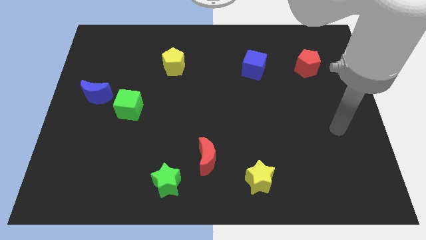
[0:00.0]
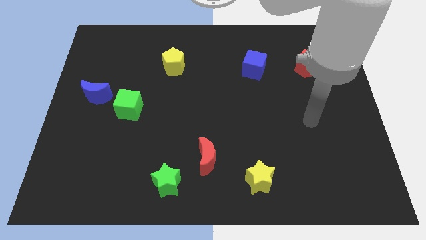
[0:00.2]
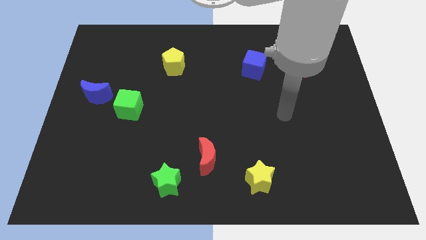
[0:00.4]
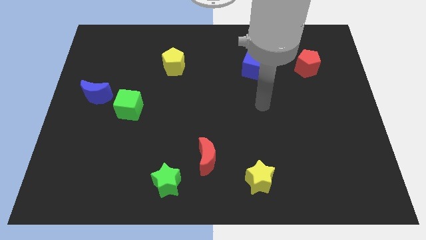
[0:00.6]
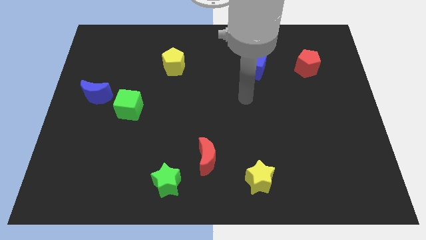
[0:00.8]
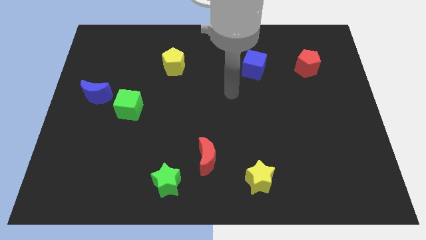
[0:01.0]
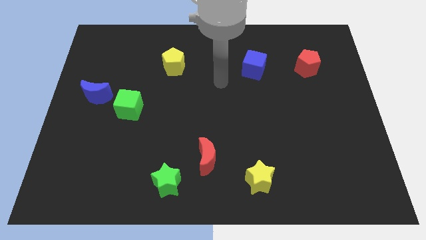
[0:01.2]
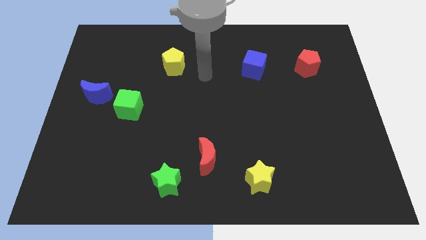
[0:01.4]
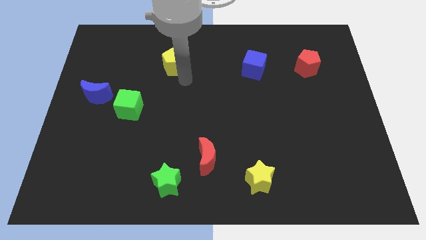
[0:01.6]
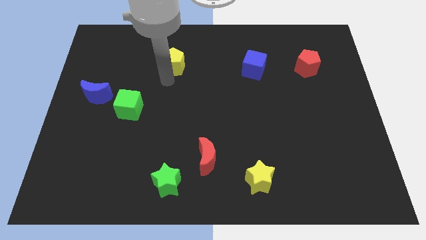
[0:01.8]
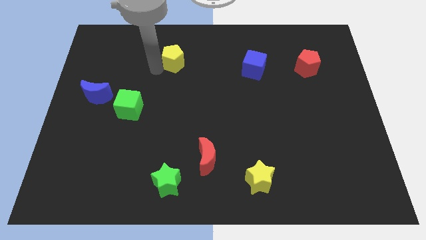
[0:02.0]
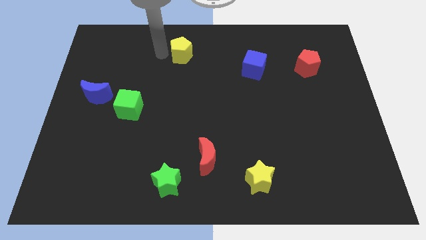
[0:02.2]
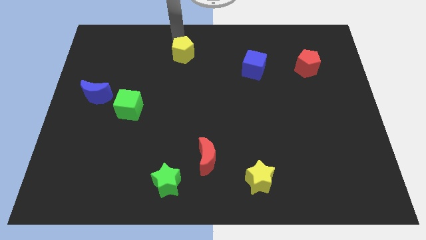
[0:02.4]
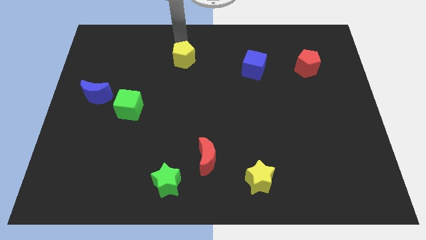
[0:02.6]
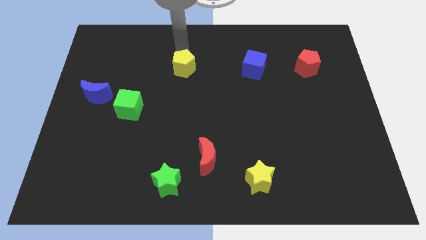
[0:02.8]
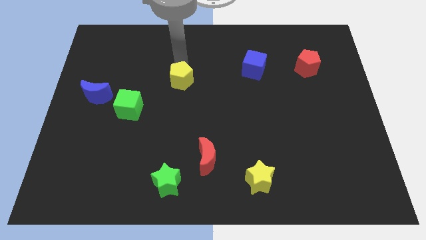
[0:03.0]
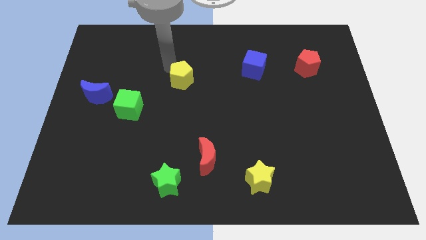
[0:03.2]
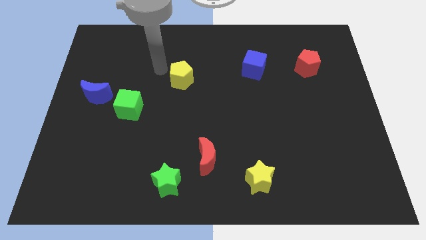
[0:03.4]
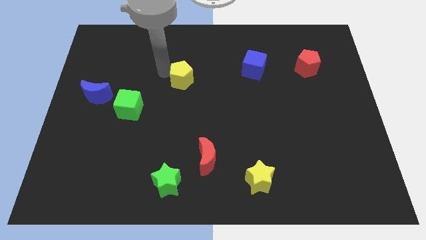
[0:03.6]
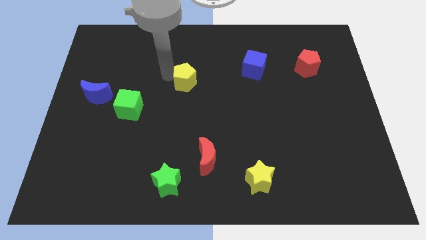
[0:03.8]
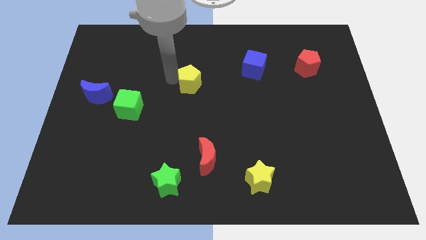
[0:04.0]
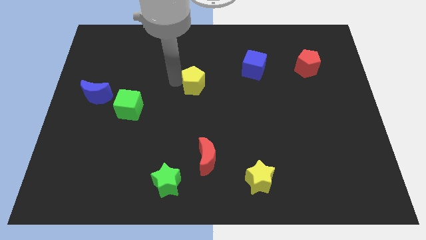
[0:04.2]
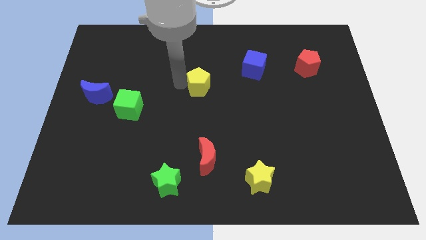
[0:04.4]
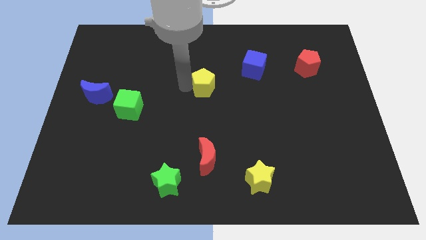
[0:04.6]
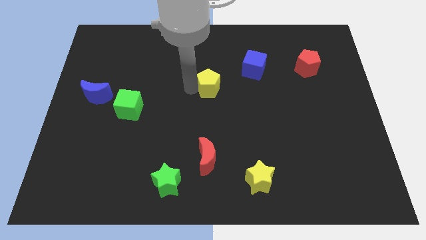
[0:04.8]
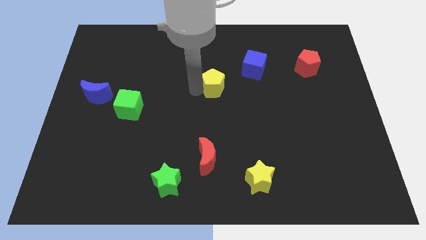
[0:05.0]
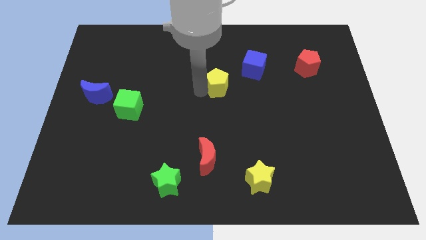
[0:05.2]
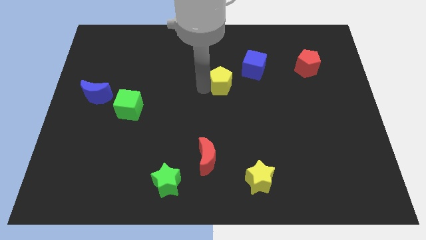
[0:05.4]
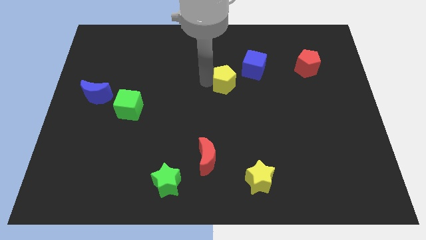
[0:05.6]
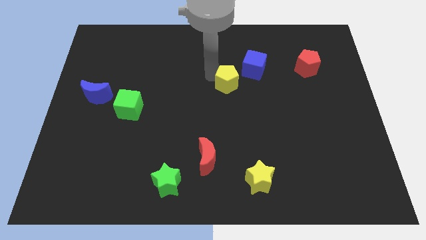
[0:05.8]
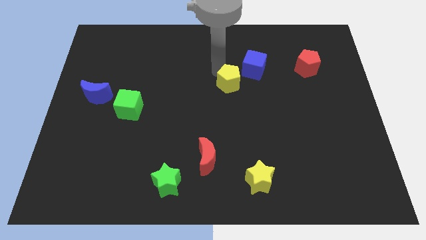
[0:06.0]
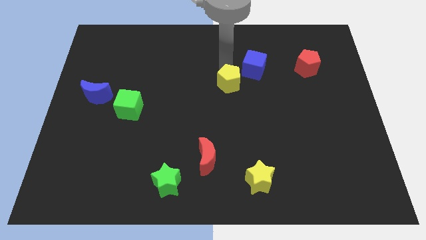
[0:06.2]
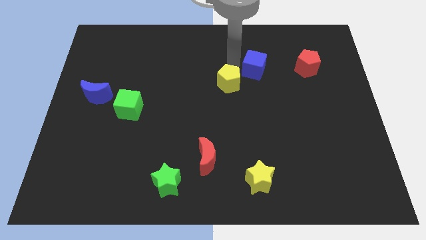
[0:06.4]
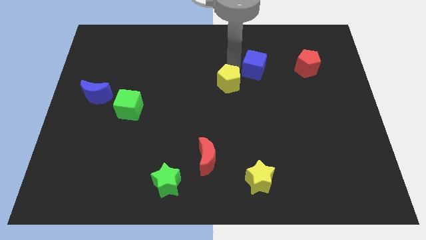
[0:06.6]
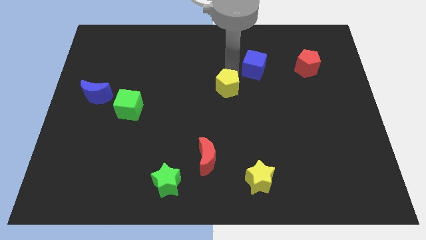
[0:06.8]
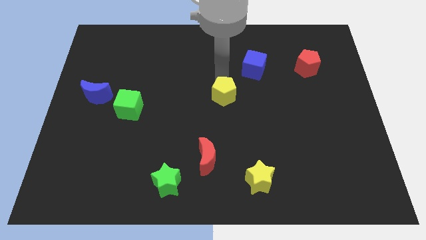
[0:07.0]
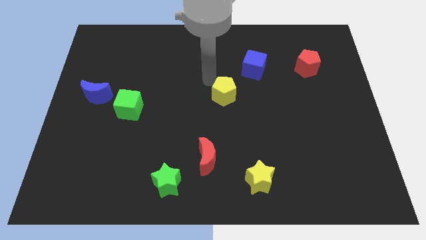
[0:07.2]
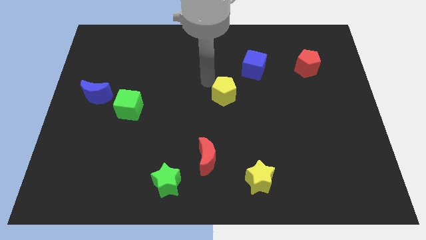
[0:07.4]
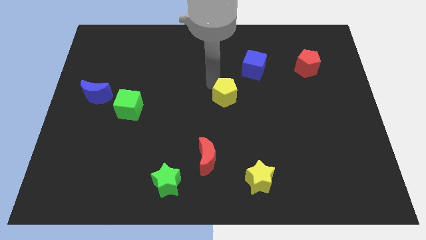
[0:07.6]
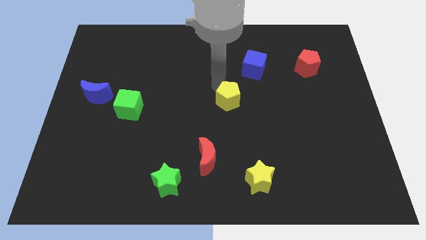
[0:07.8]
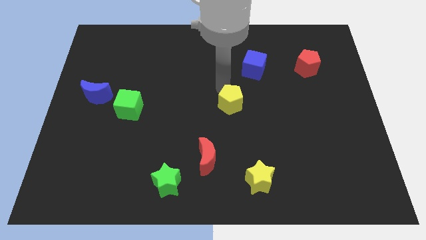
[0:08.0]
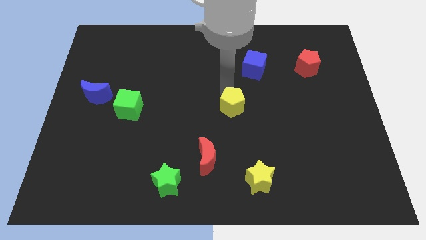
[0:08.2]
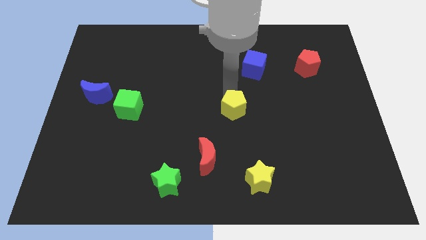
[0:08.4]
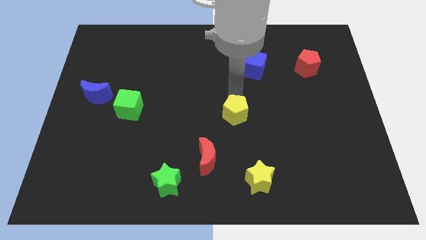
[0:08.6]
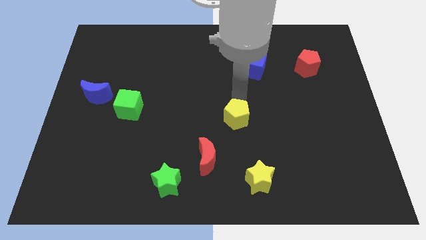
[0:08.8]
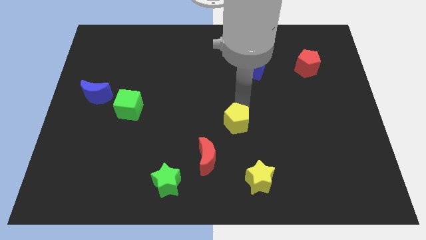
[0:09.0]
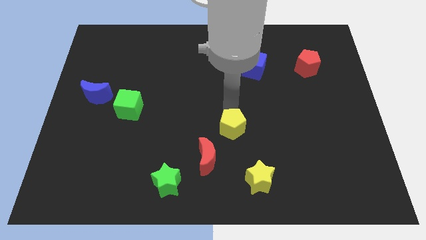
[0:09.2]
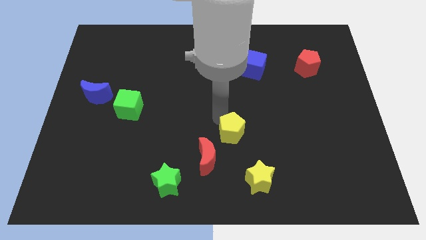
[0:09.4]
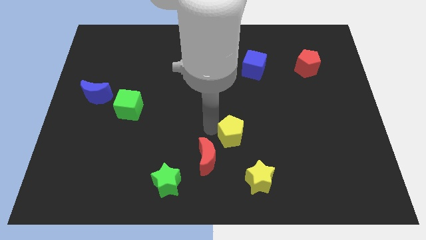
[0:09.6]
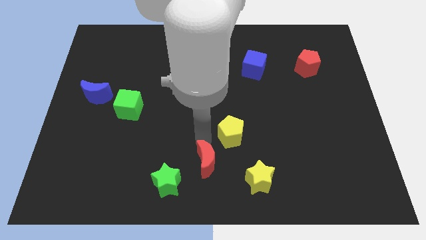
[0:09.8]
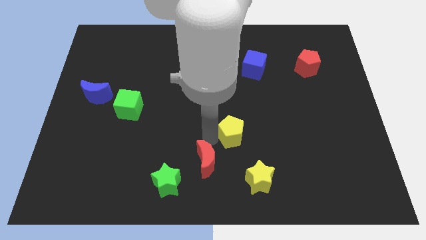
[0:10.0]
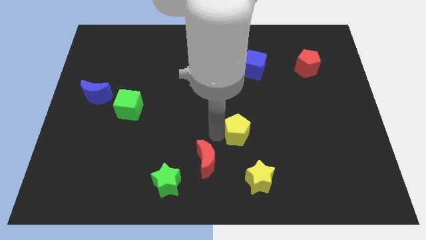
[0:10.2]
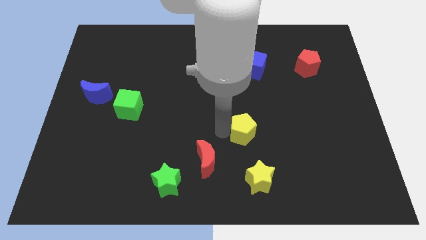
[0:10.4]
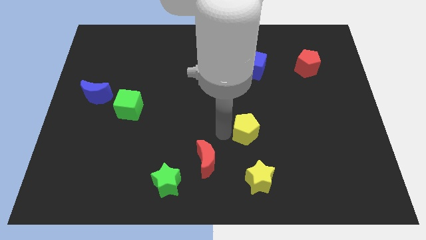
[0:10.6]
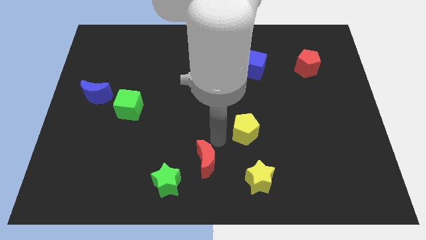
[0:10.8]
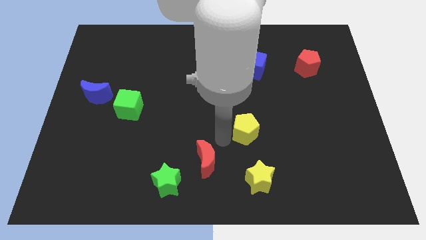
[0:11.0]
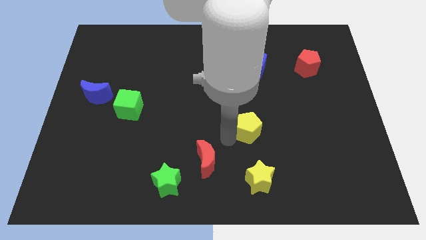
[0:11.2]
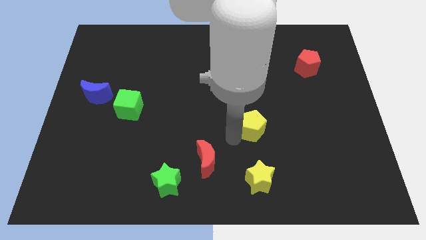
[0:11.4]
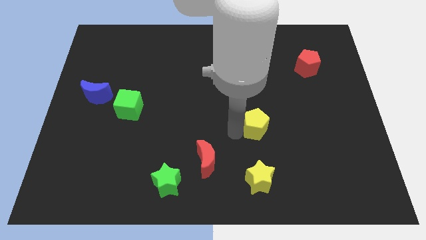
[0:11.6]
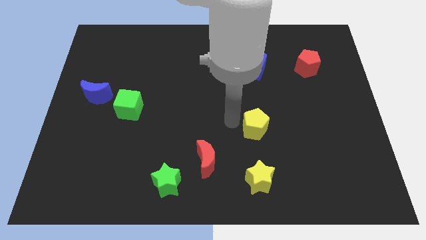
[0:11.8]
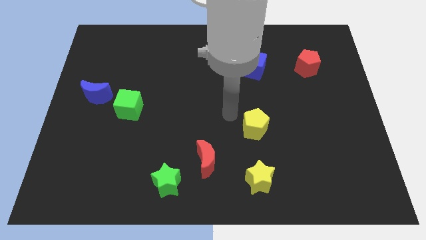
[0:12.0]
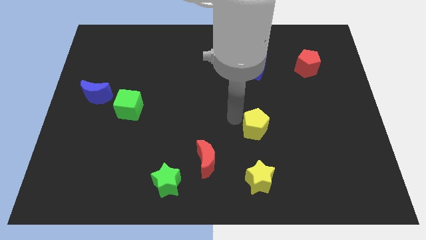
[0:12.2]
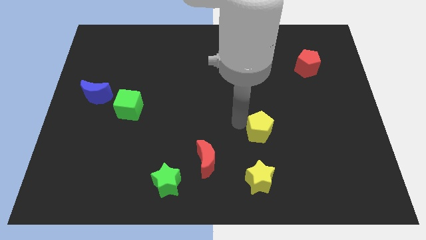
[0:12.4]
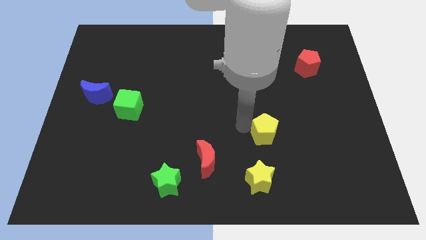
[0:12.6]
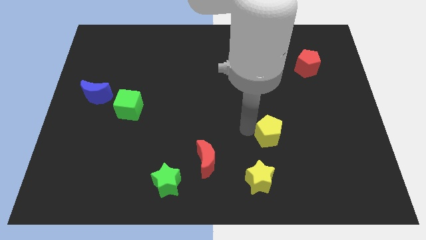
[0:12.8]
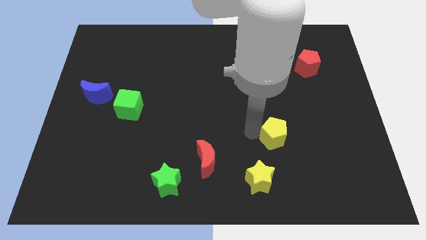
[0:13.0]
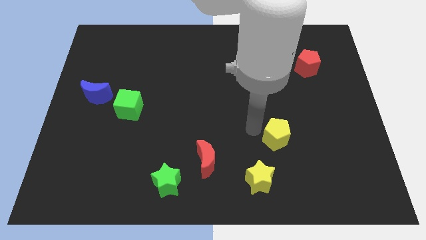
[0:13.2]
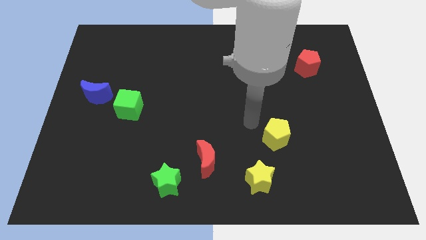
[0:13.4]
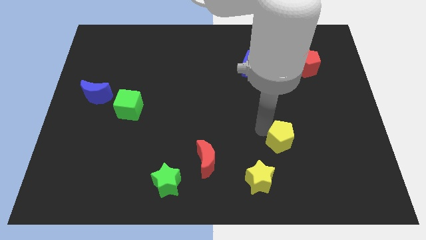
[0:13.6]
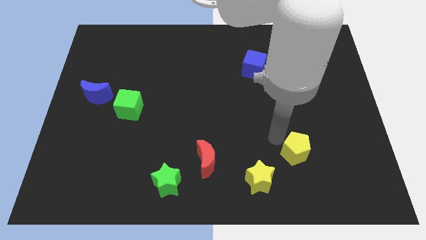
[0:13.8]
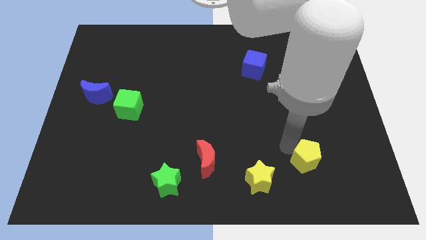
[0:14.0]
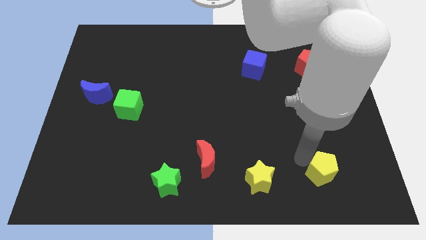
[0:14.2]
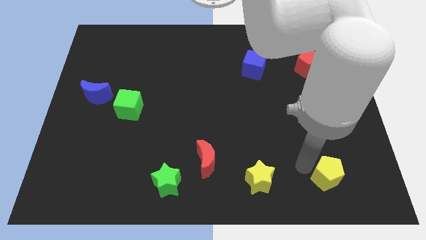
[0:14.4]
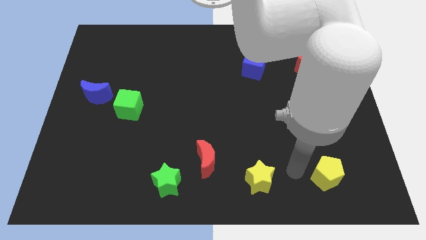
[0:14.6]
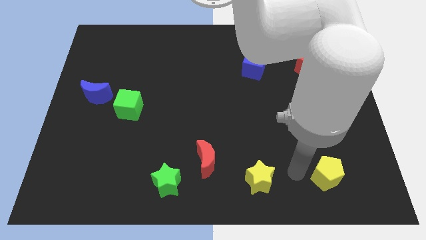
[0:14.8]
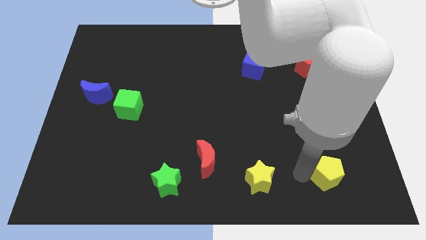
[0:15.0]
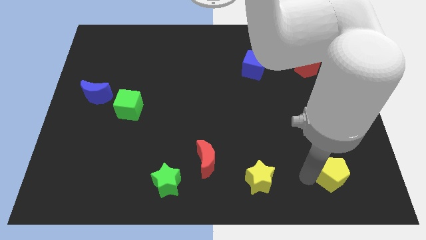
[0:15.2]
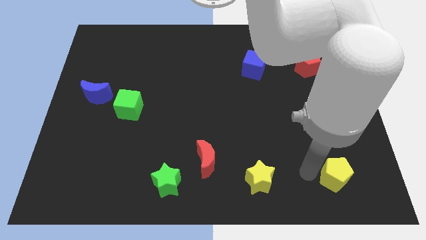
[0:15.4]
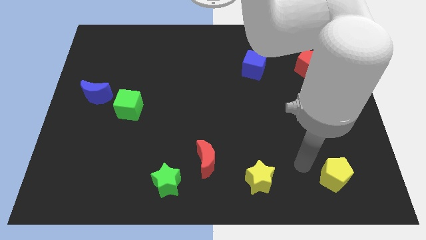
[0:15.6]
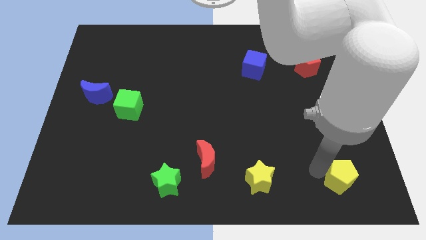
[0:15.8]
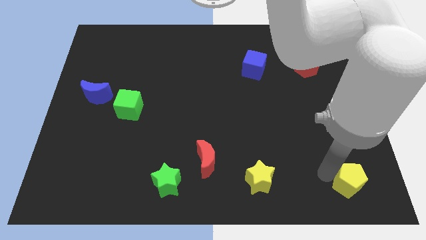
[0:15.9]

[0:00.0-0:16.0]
put the yellow pentagon to the bottom right of the board
